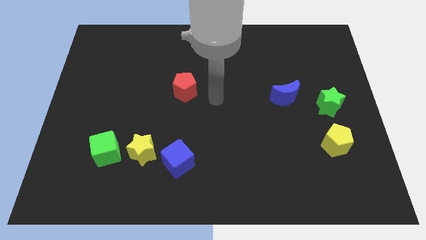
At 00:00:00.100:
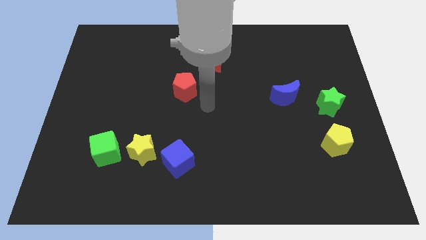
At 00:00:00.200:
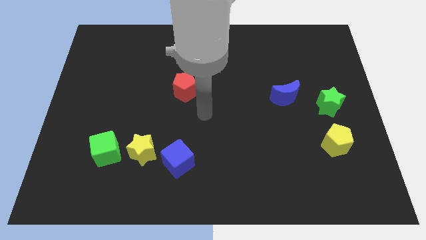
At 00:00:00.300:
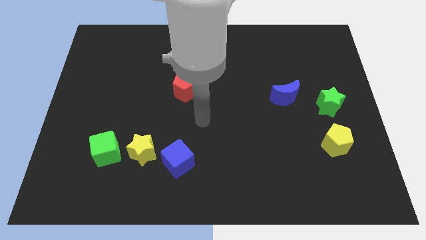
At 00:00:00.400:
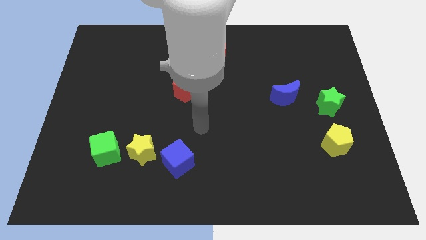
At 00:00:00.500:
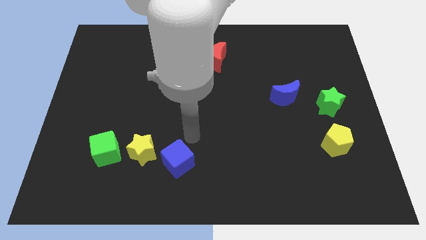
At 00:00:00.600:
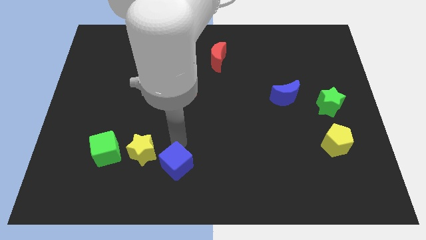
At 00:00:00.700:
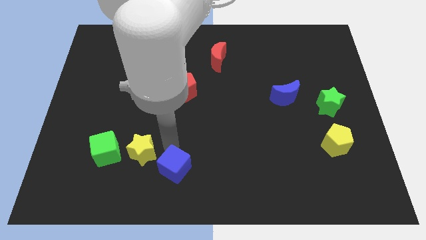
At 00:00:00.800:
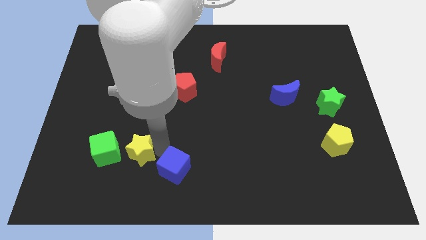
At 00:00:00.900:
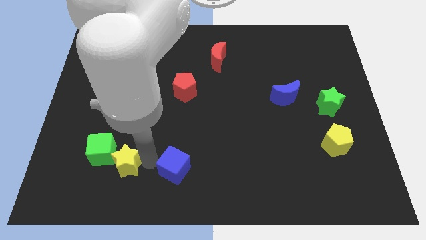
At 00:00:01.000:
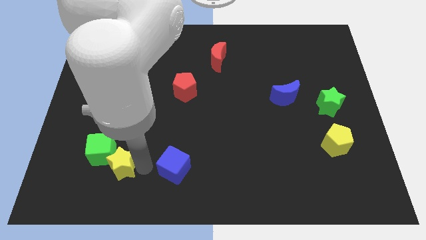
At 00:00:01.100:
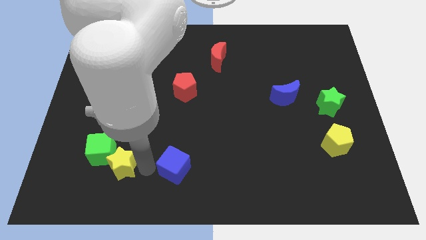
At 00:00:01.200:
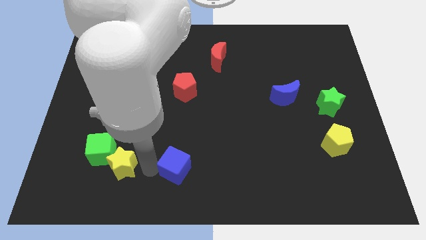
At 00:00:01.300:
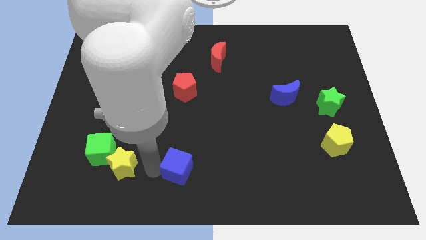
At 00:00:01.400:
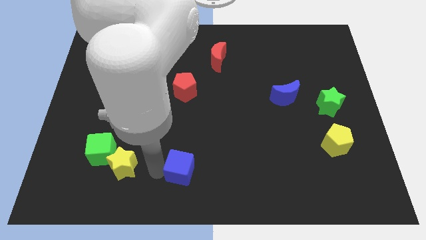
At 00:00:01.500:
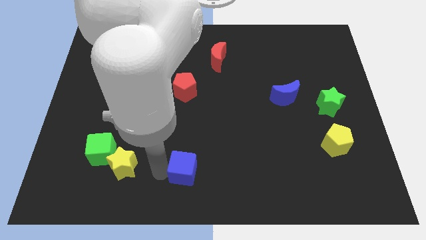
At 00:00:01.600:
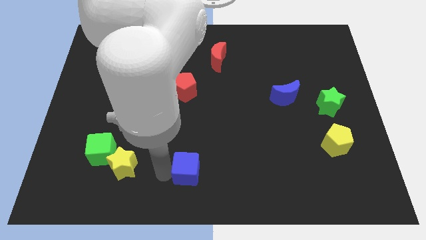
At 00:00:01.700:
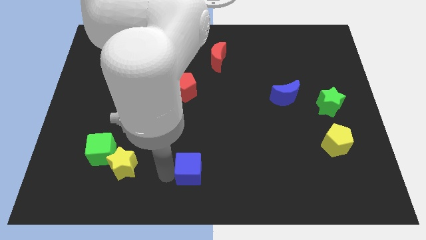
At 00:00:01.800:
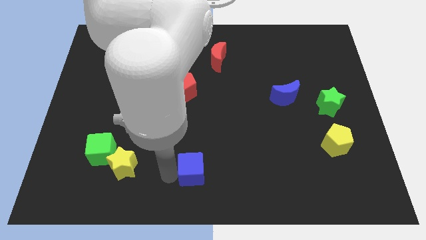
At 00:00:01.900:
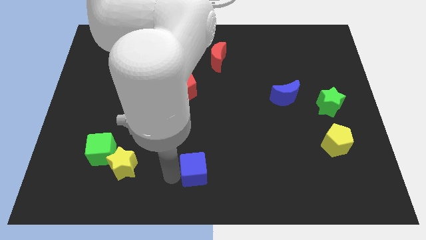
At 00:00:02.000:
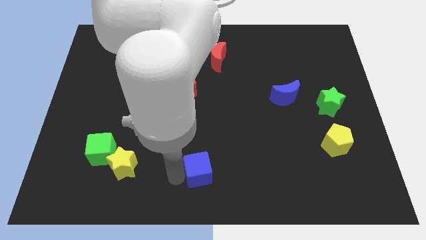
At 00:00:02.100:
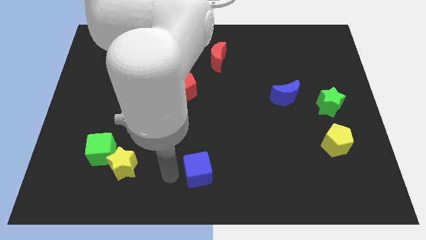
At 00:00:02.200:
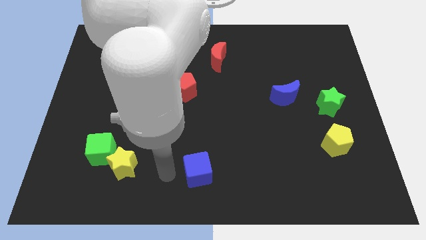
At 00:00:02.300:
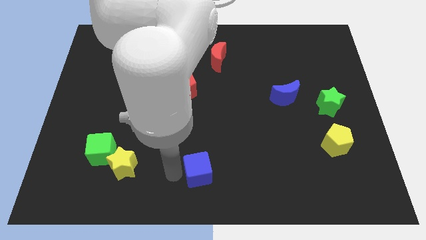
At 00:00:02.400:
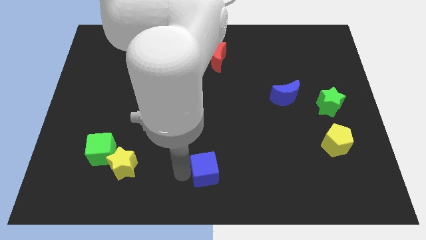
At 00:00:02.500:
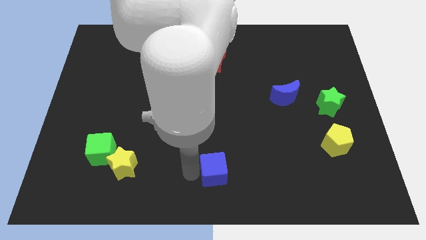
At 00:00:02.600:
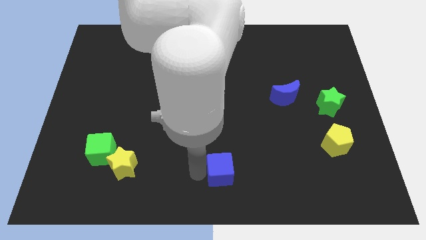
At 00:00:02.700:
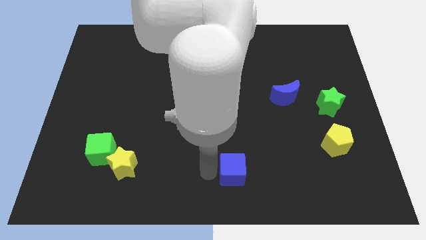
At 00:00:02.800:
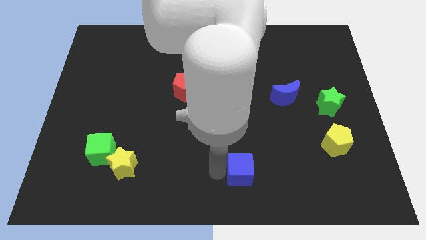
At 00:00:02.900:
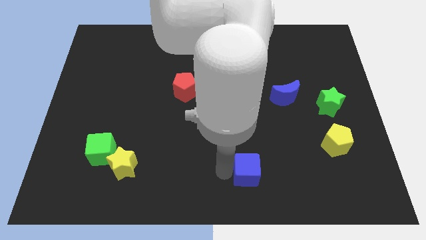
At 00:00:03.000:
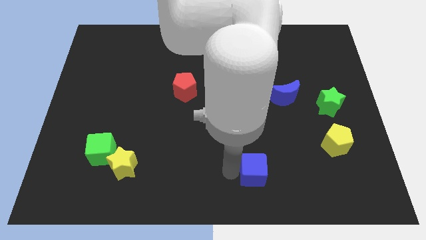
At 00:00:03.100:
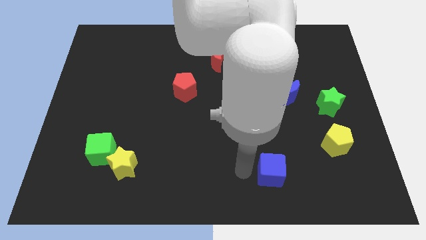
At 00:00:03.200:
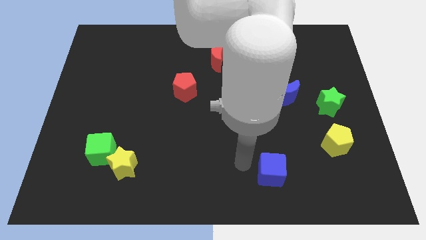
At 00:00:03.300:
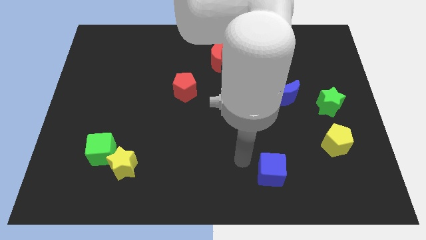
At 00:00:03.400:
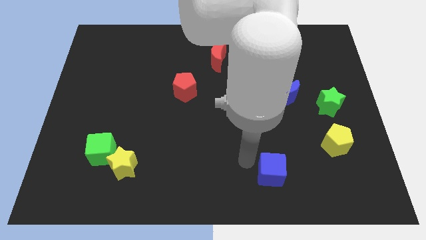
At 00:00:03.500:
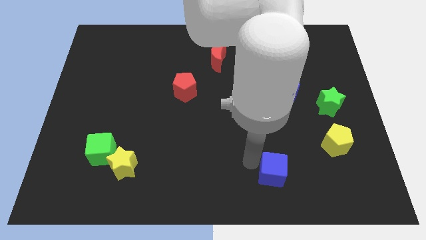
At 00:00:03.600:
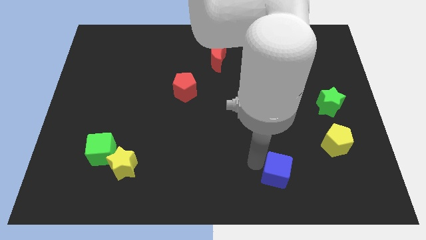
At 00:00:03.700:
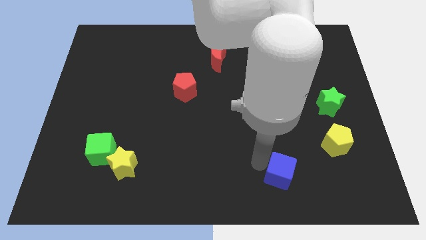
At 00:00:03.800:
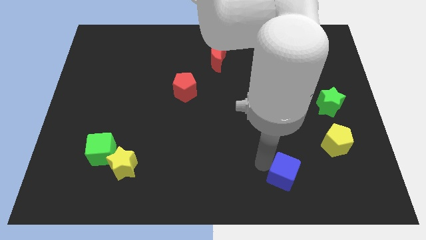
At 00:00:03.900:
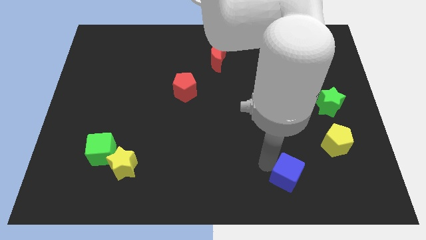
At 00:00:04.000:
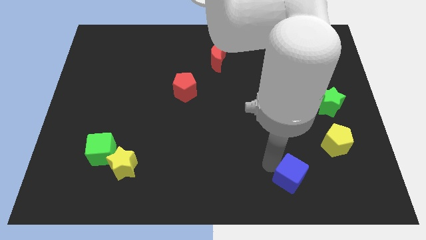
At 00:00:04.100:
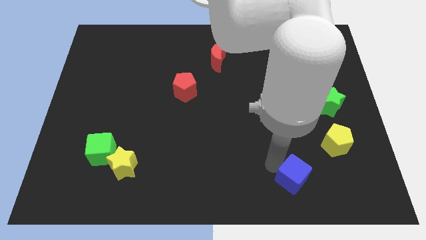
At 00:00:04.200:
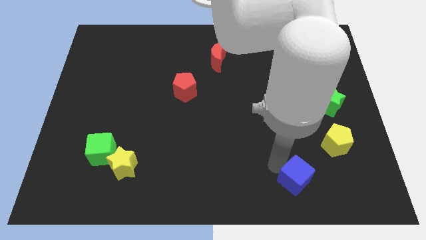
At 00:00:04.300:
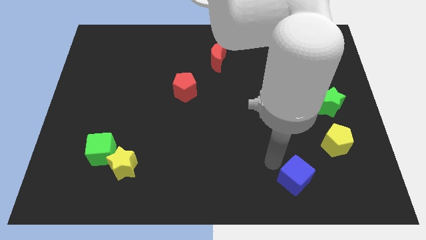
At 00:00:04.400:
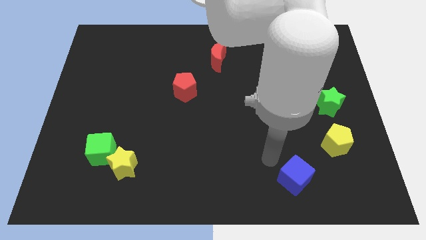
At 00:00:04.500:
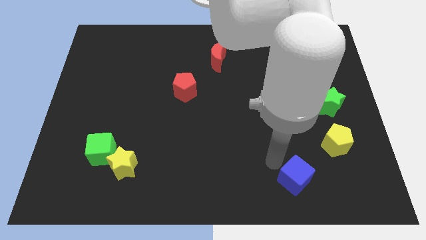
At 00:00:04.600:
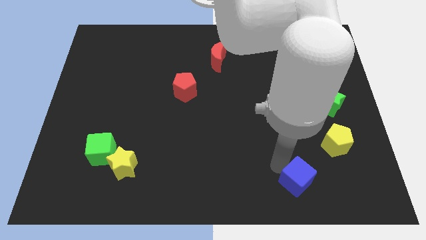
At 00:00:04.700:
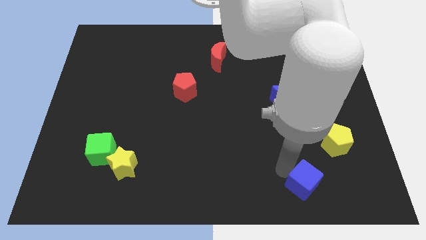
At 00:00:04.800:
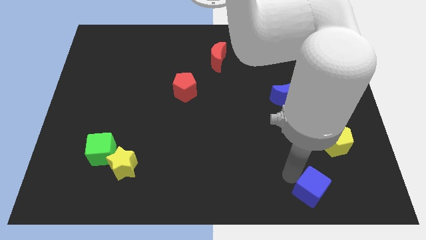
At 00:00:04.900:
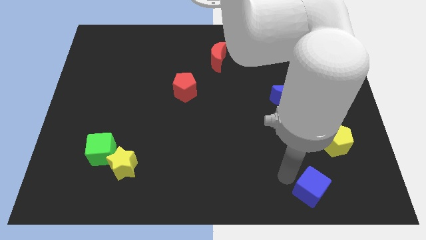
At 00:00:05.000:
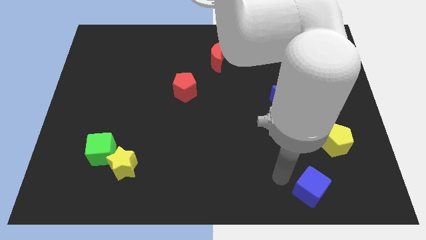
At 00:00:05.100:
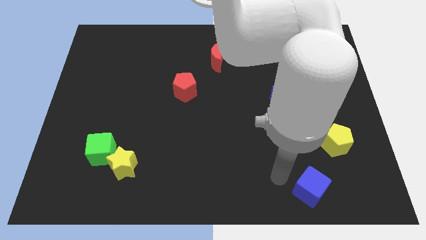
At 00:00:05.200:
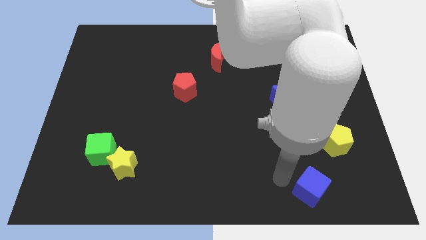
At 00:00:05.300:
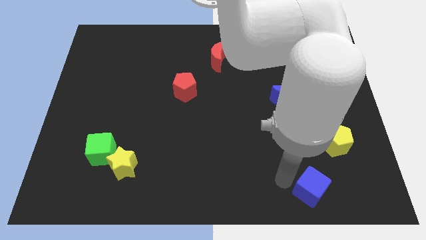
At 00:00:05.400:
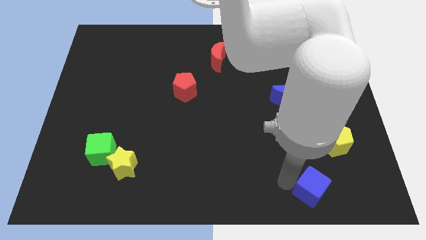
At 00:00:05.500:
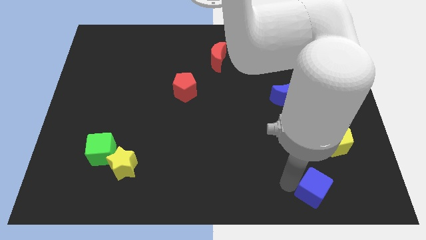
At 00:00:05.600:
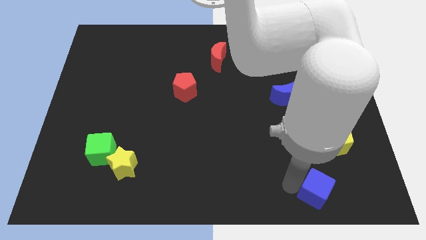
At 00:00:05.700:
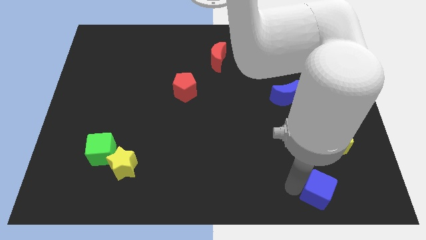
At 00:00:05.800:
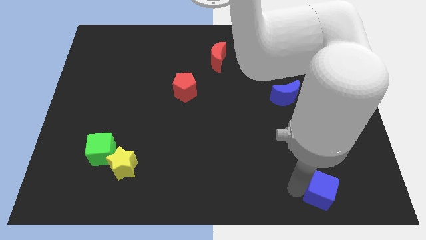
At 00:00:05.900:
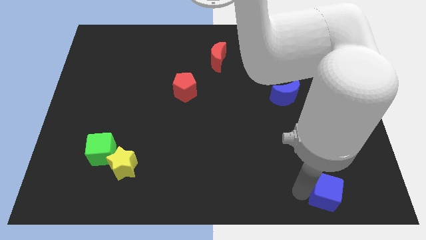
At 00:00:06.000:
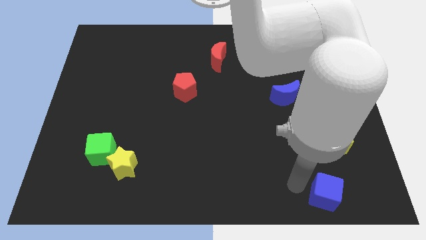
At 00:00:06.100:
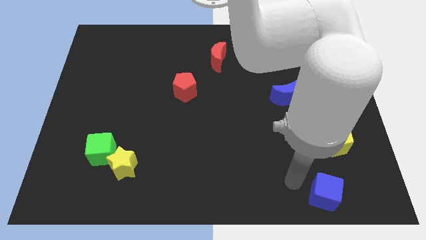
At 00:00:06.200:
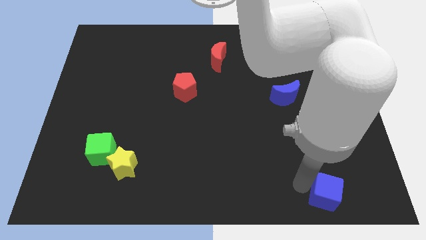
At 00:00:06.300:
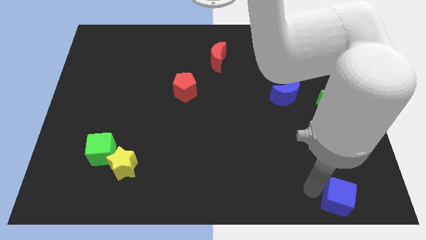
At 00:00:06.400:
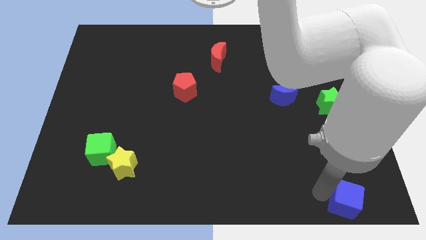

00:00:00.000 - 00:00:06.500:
put the blue cube to the bottom right
